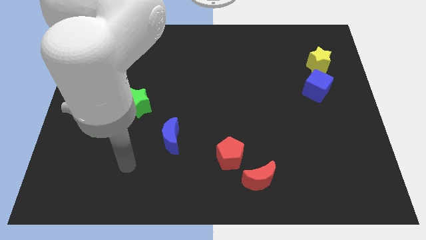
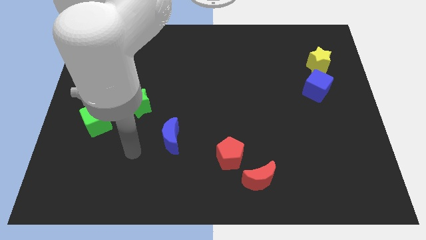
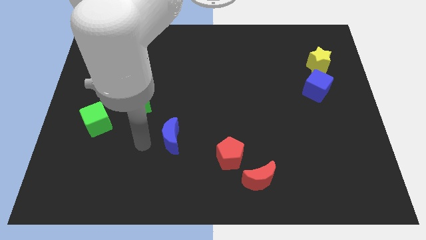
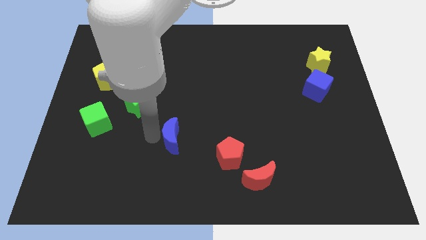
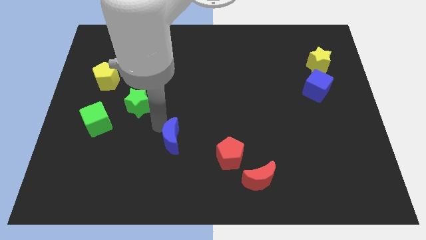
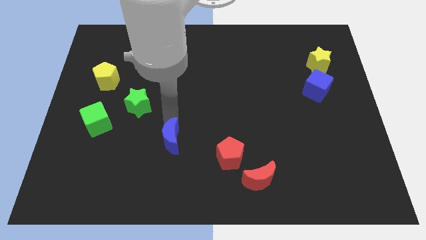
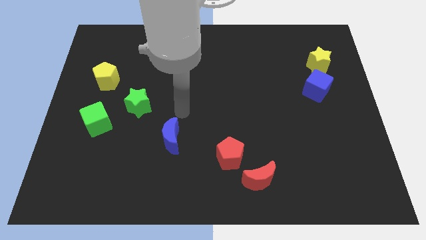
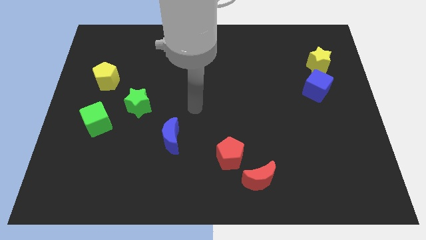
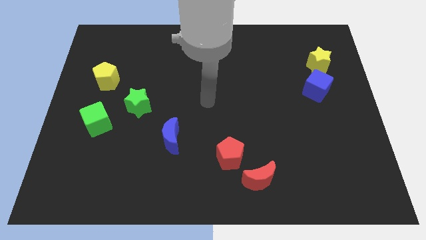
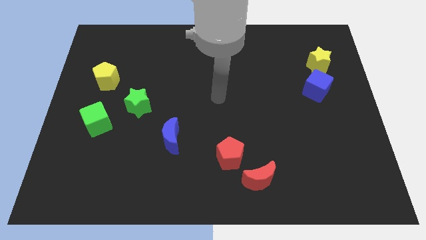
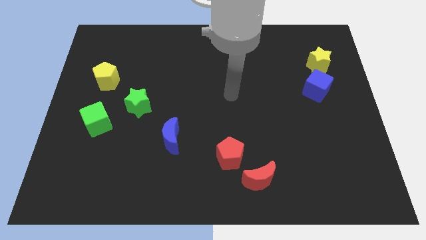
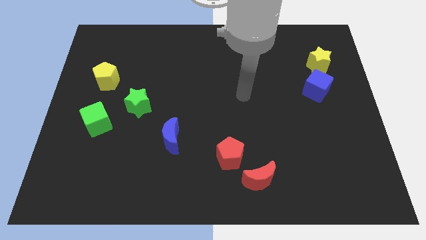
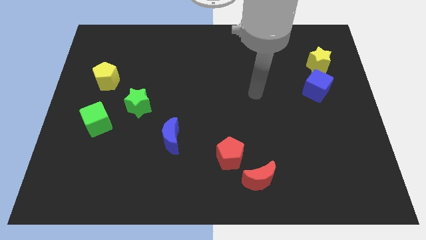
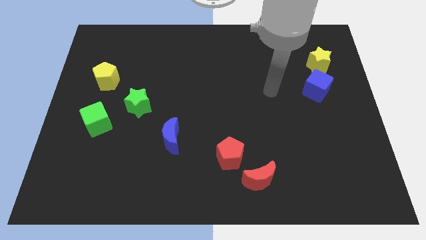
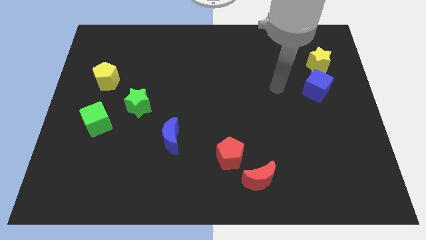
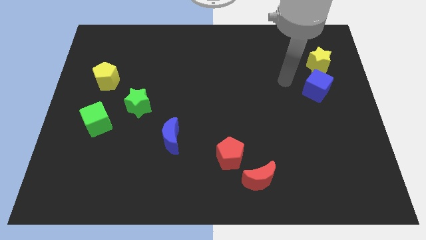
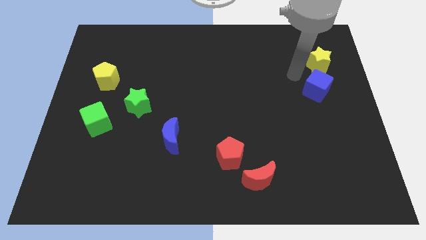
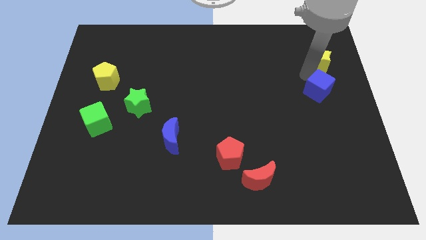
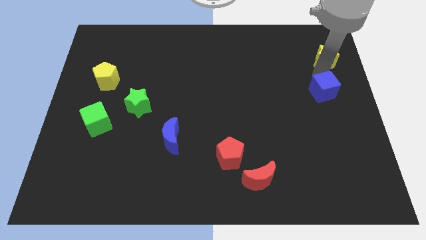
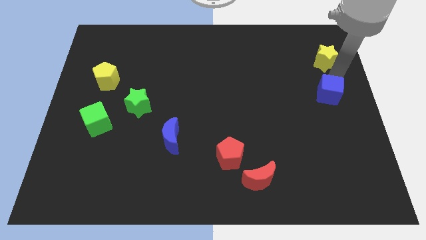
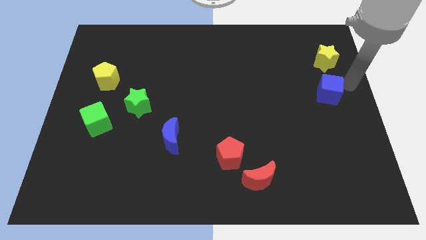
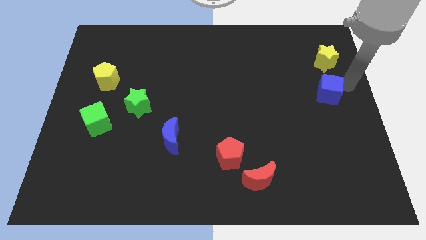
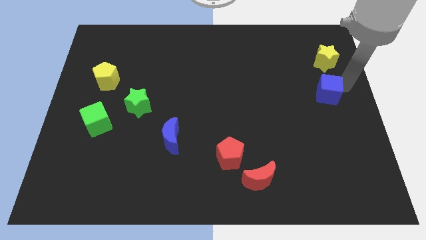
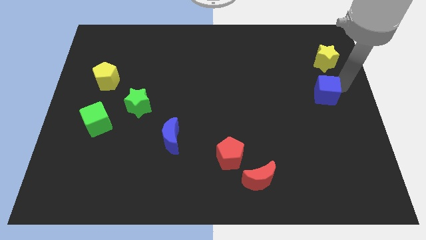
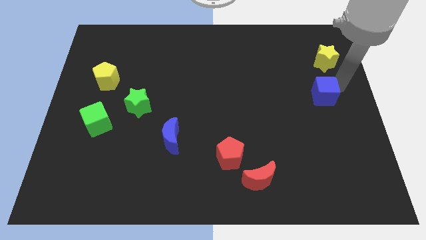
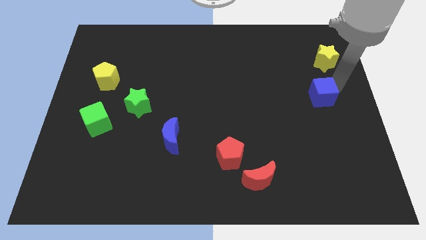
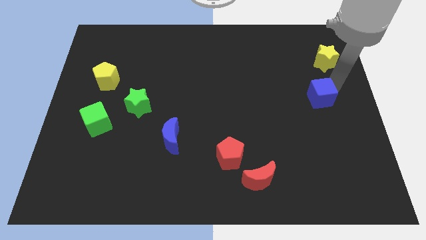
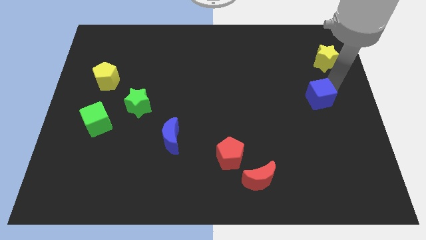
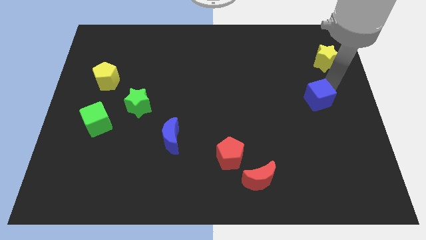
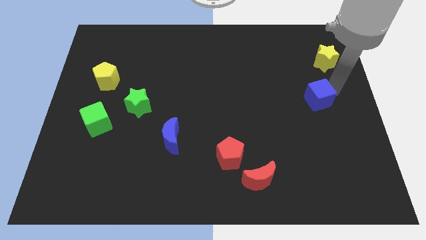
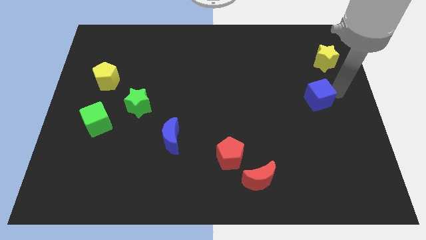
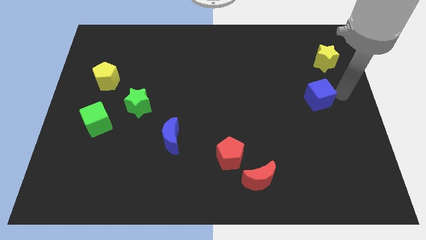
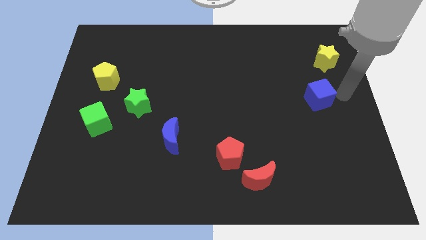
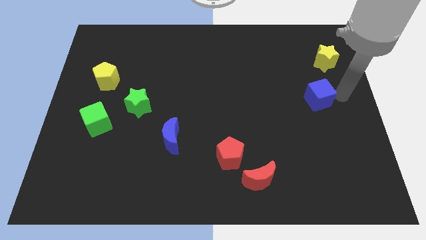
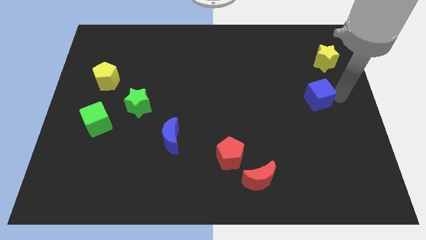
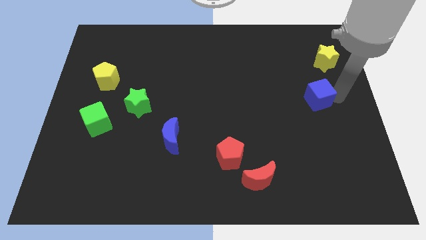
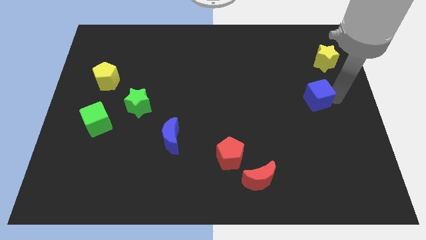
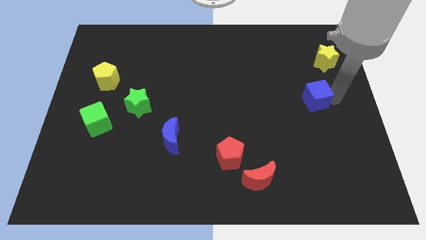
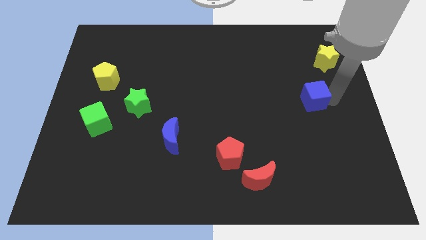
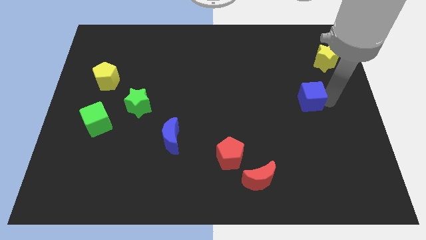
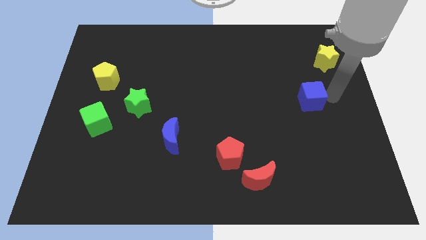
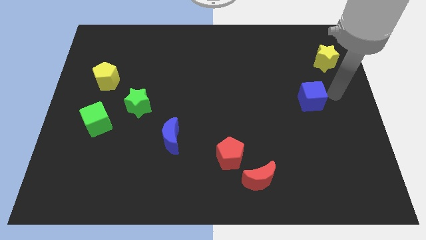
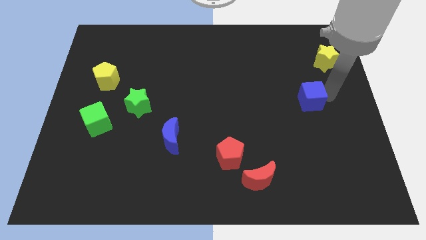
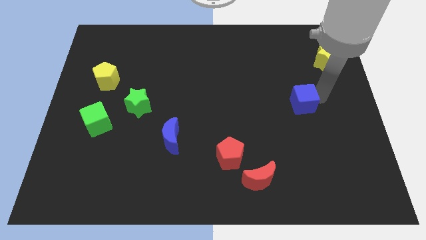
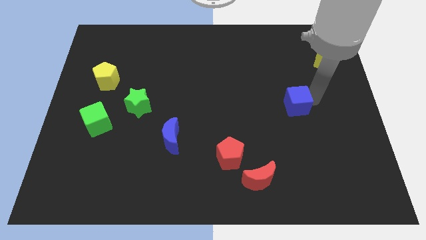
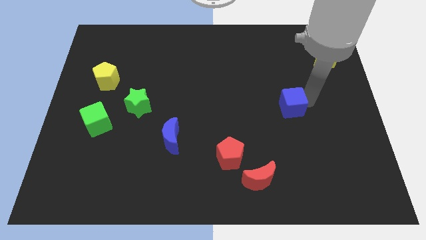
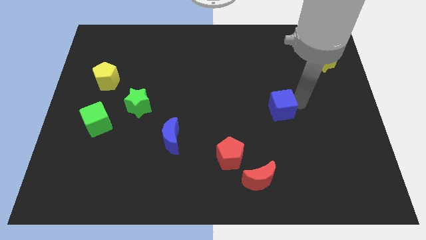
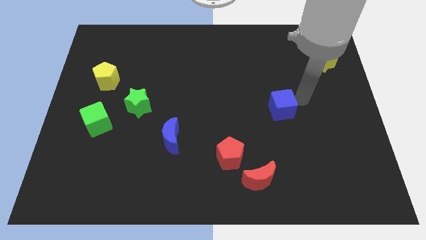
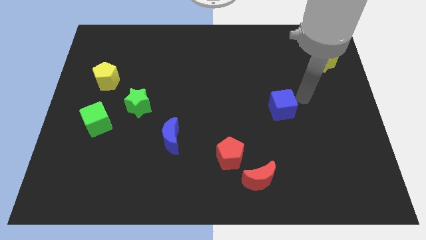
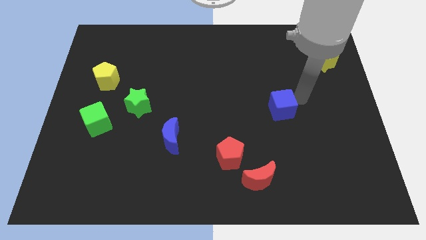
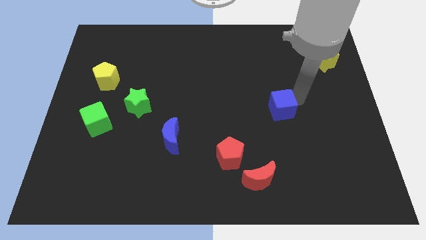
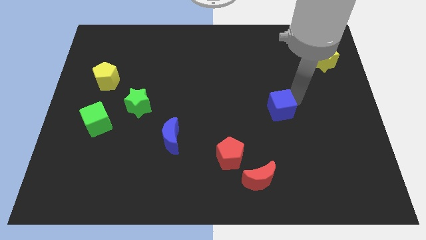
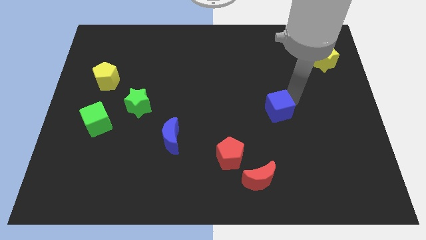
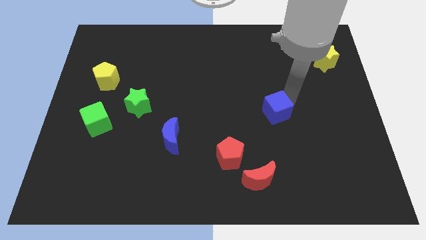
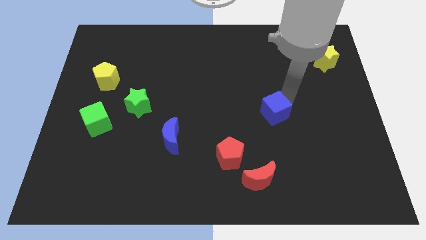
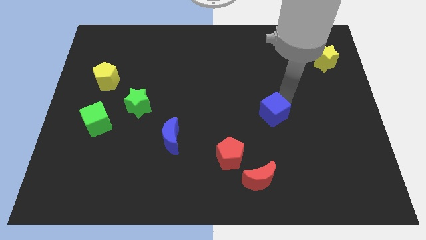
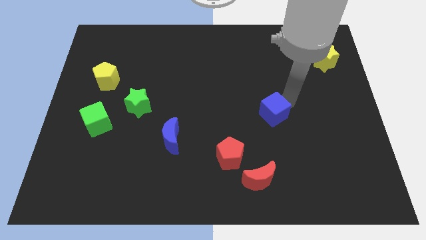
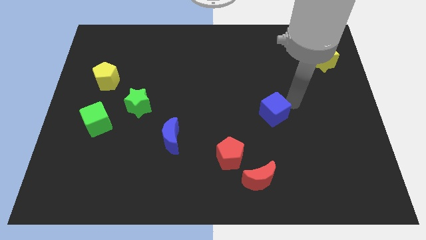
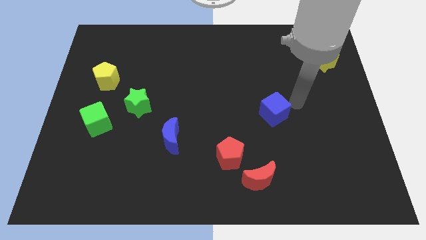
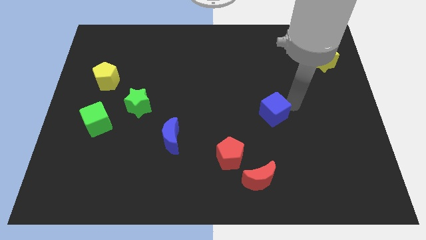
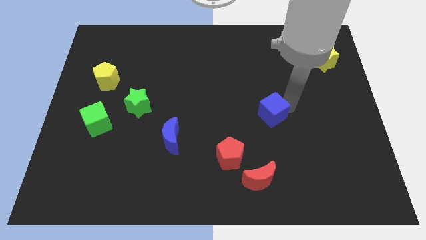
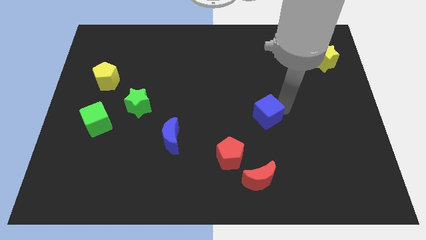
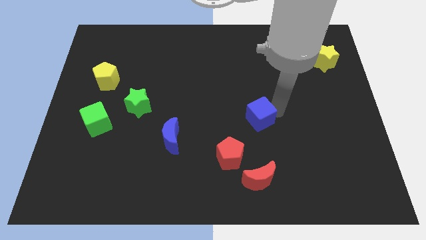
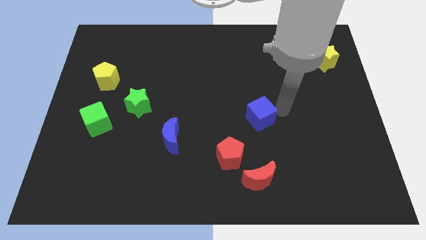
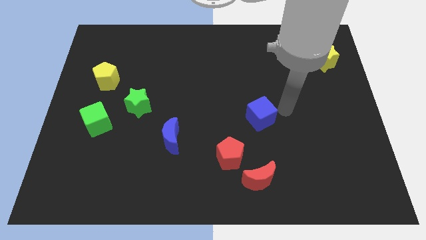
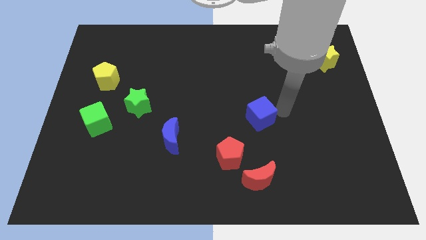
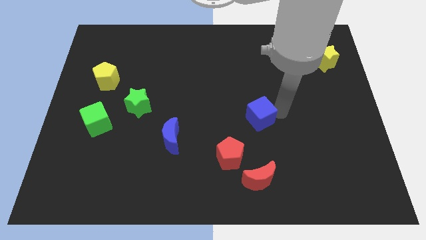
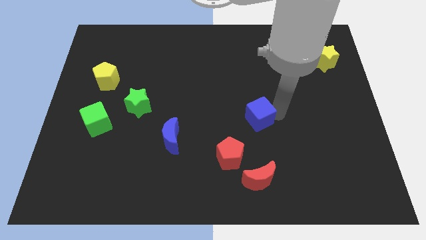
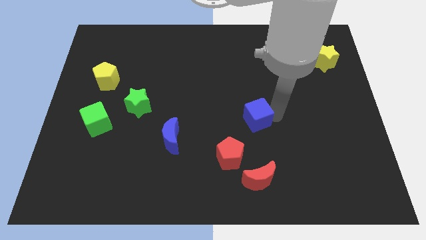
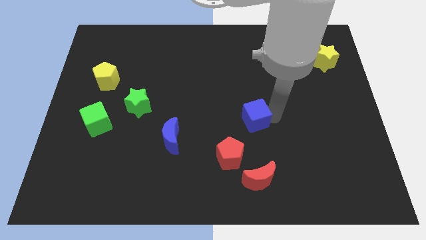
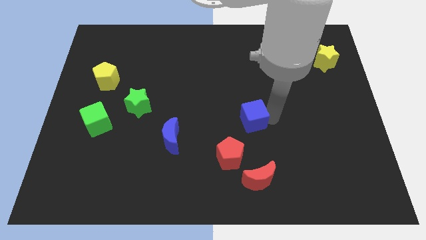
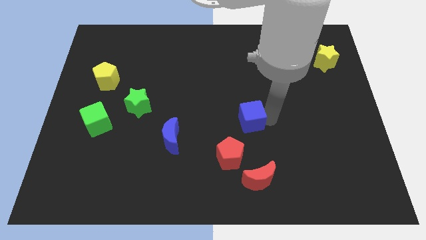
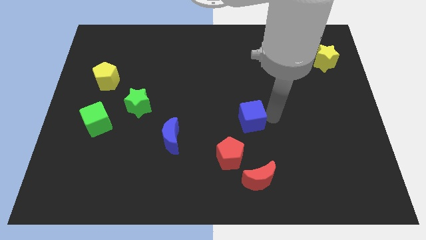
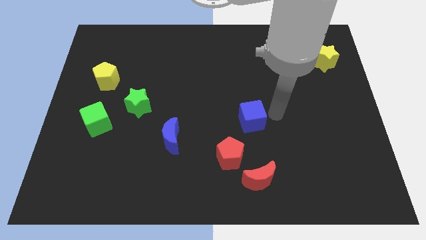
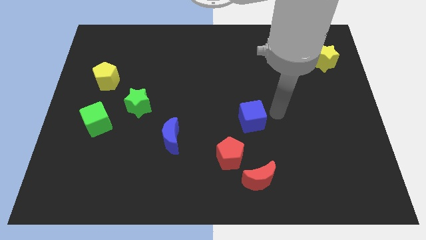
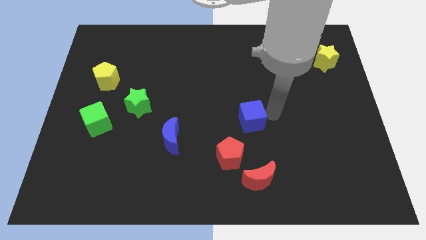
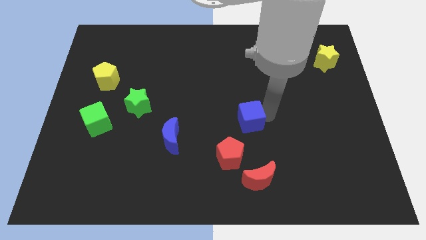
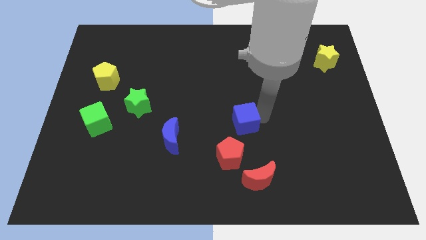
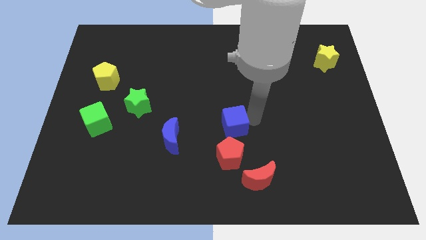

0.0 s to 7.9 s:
move the blue cube downwards and to the left diagonally
